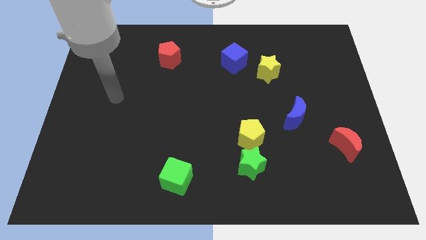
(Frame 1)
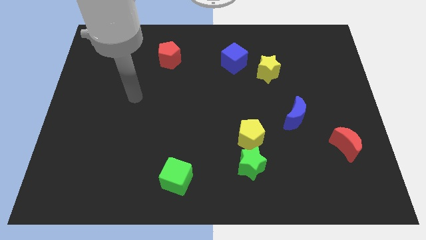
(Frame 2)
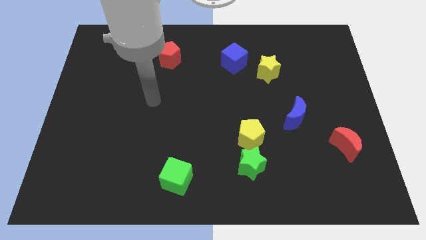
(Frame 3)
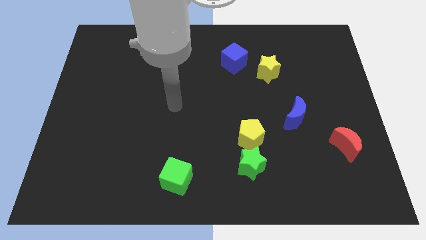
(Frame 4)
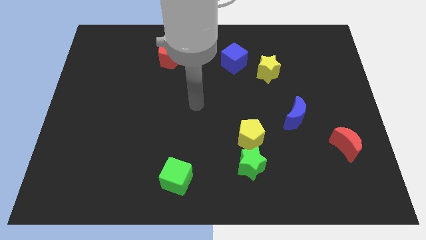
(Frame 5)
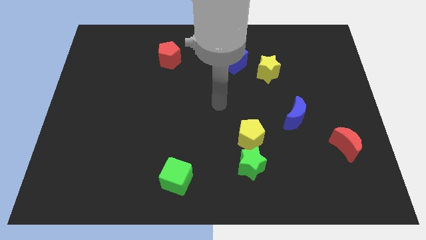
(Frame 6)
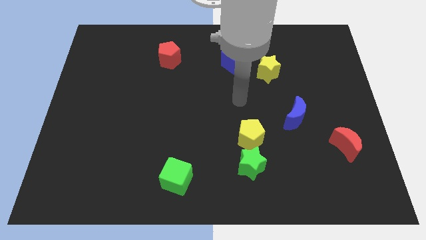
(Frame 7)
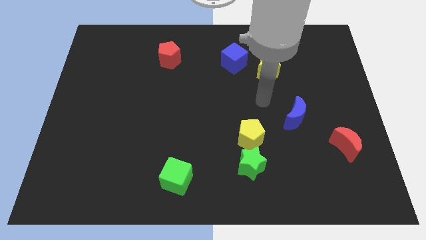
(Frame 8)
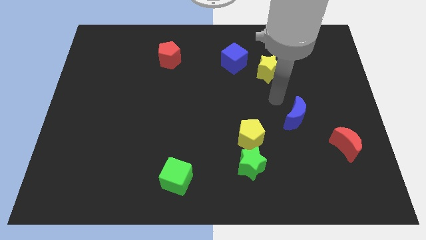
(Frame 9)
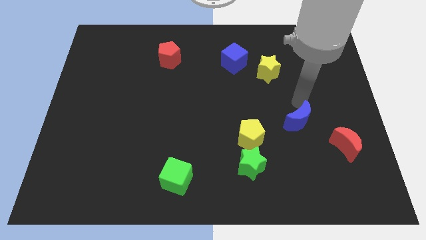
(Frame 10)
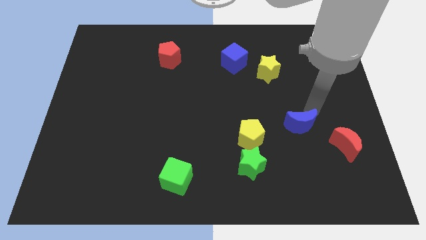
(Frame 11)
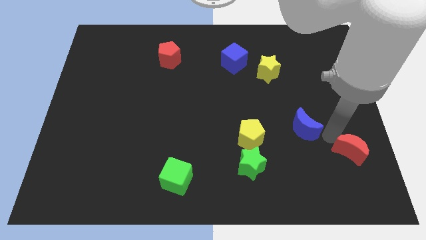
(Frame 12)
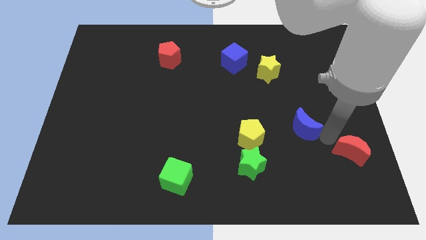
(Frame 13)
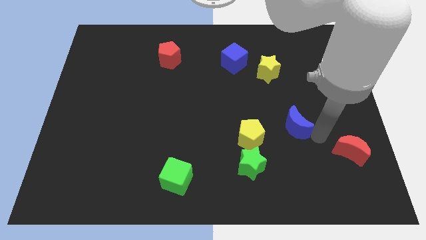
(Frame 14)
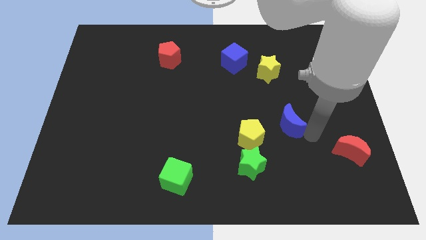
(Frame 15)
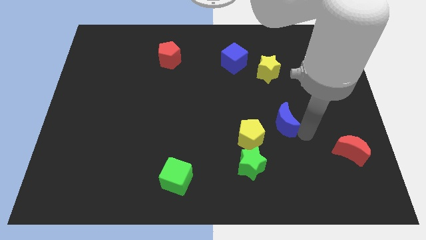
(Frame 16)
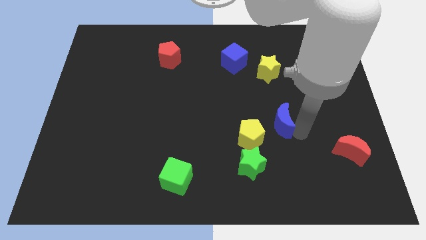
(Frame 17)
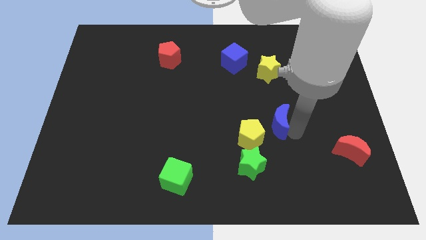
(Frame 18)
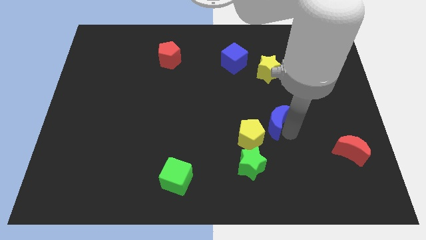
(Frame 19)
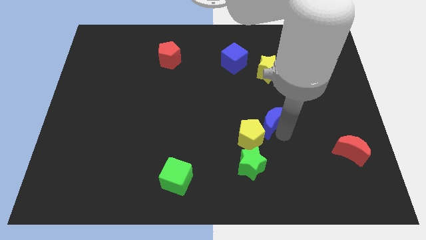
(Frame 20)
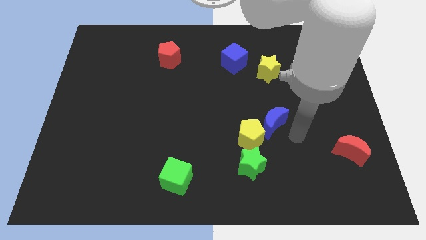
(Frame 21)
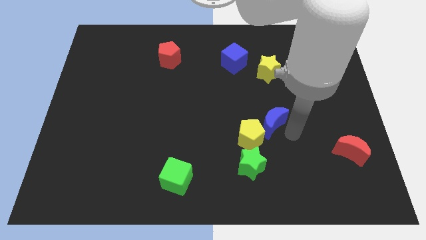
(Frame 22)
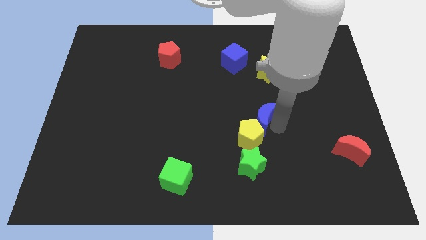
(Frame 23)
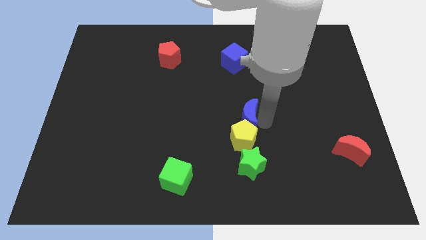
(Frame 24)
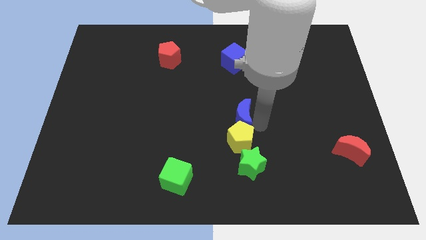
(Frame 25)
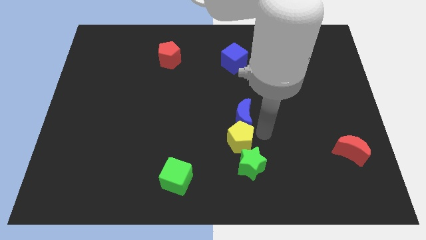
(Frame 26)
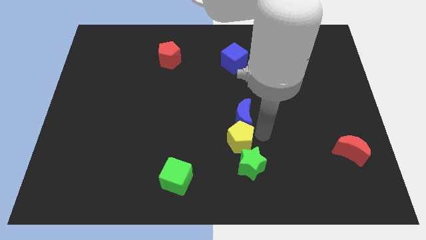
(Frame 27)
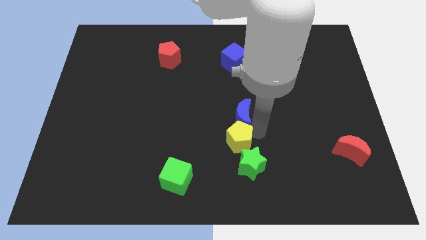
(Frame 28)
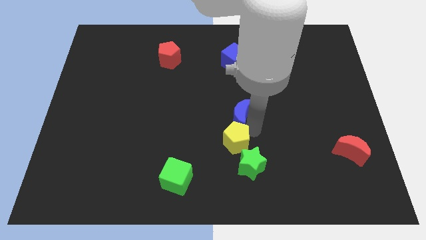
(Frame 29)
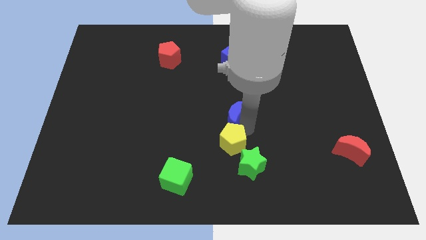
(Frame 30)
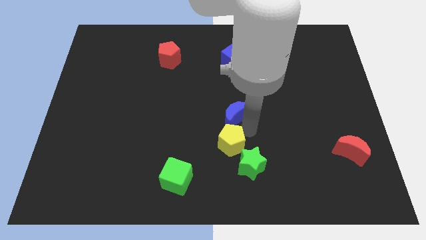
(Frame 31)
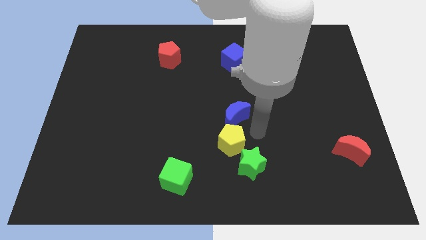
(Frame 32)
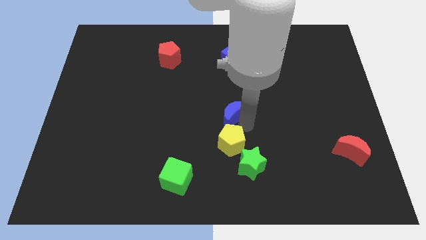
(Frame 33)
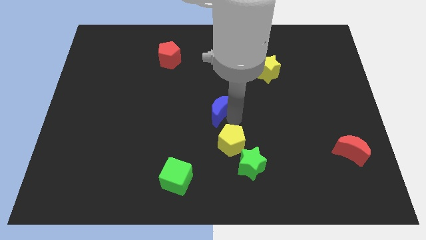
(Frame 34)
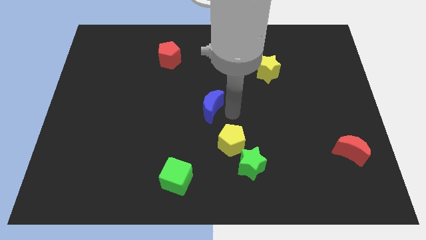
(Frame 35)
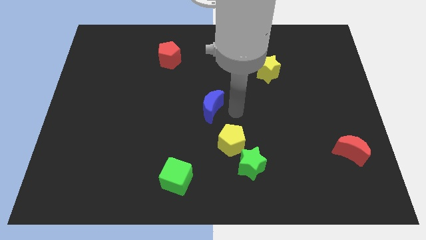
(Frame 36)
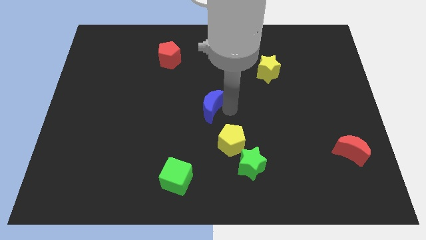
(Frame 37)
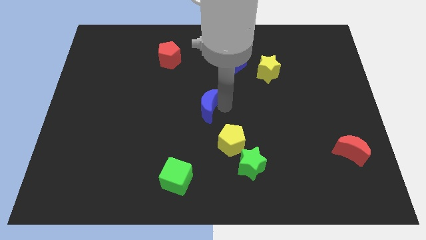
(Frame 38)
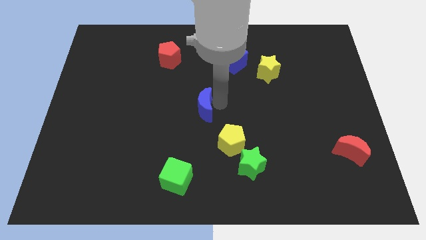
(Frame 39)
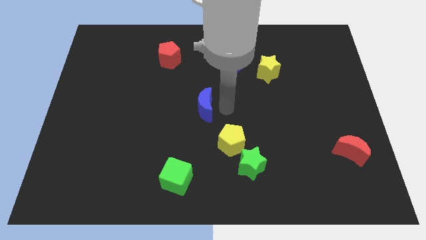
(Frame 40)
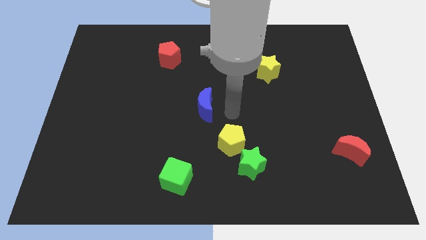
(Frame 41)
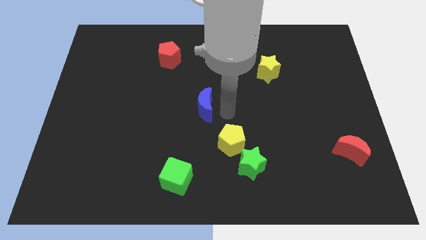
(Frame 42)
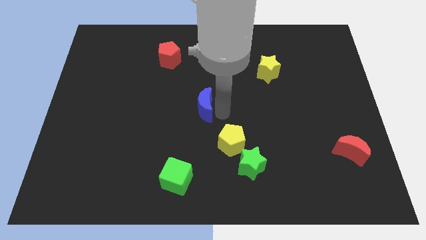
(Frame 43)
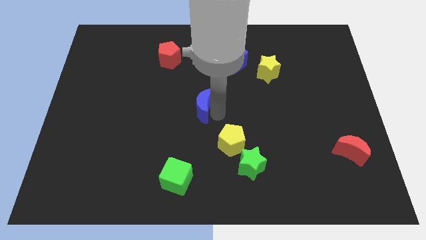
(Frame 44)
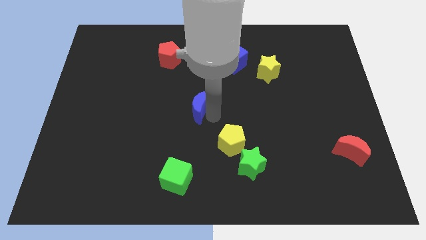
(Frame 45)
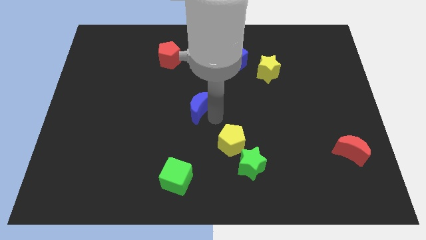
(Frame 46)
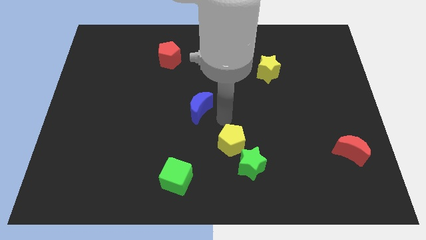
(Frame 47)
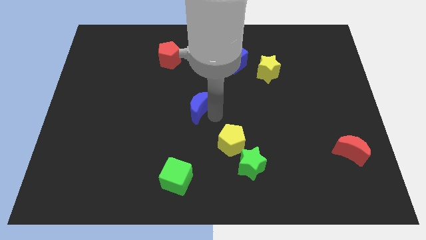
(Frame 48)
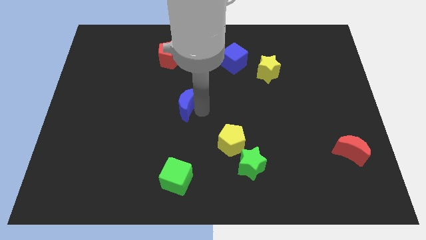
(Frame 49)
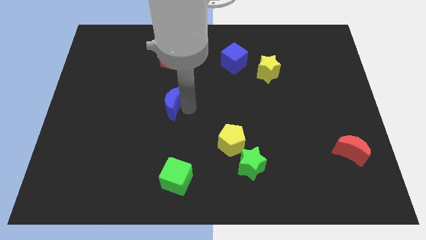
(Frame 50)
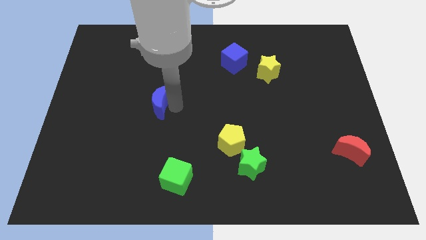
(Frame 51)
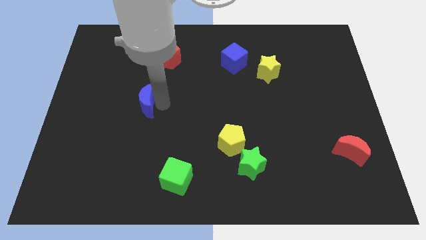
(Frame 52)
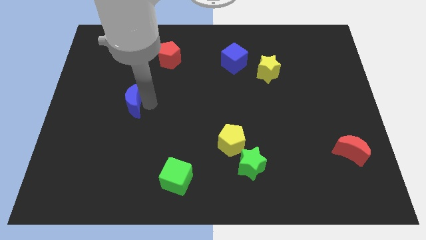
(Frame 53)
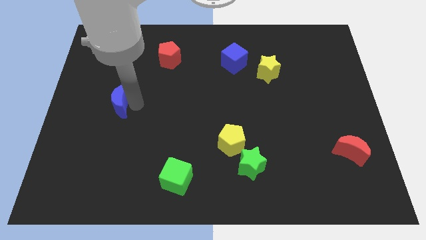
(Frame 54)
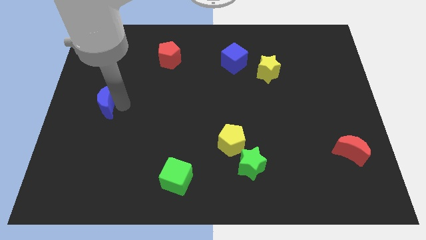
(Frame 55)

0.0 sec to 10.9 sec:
slide the blue moon to the left side of the board

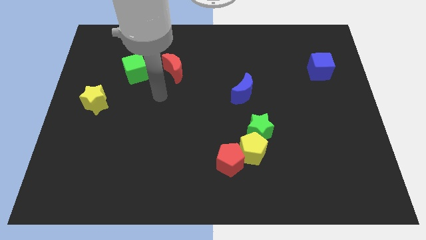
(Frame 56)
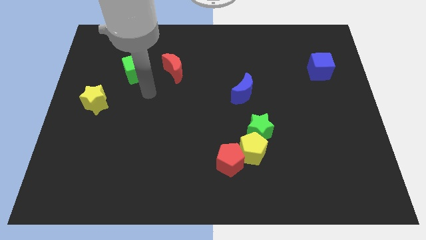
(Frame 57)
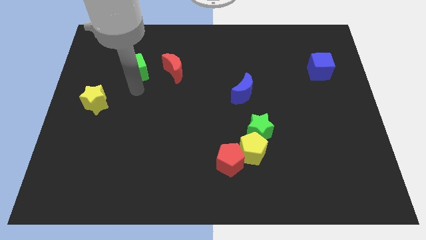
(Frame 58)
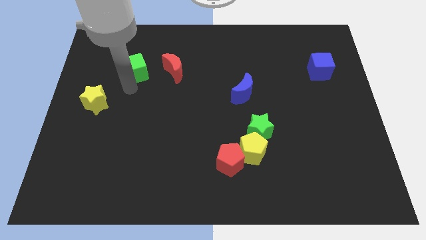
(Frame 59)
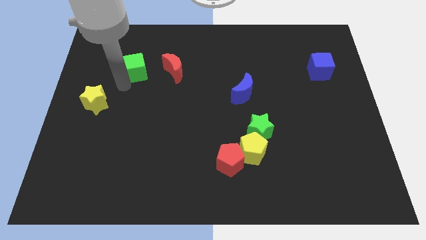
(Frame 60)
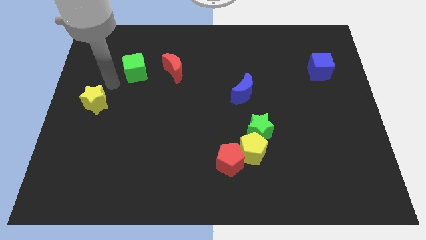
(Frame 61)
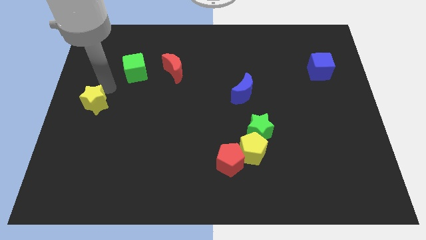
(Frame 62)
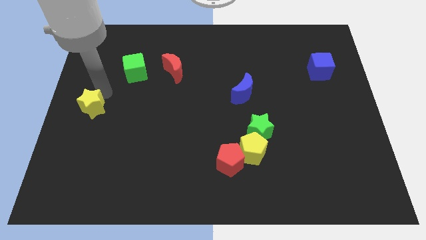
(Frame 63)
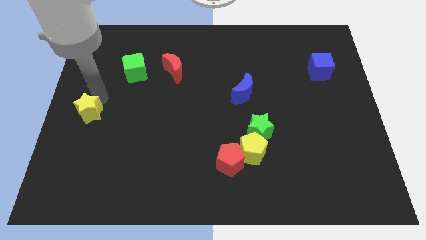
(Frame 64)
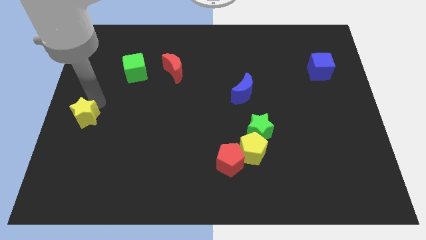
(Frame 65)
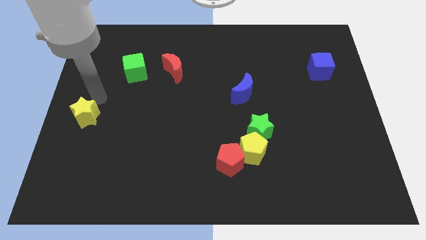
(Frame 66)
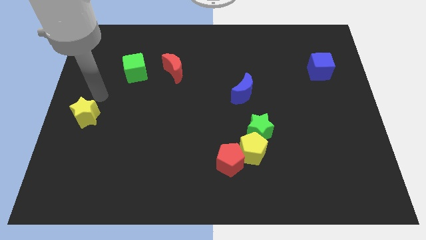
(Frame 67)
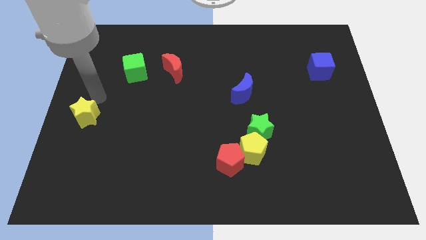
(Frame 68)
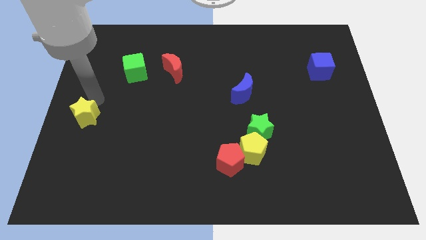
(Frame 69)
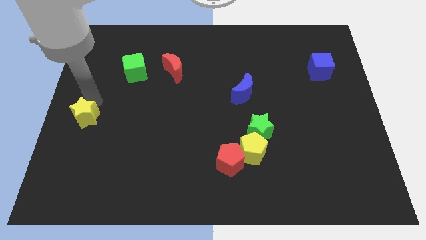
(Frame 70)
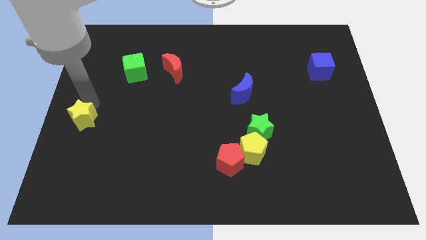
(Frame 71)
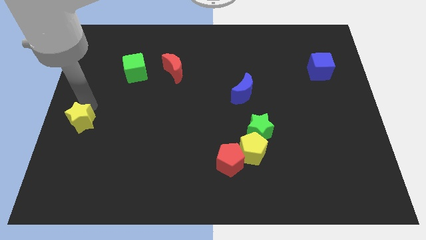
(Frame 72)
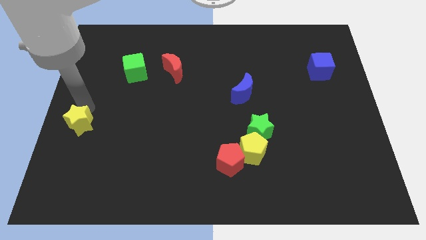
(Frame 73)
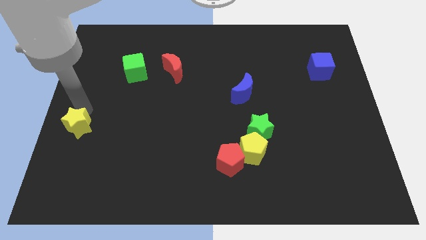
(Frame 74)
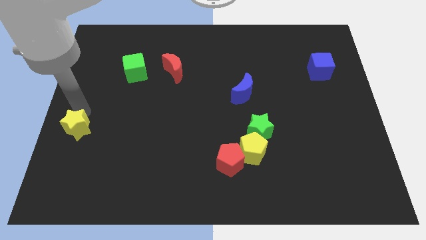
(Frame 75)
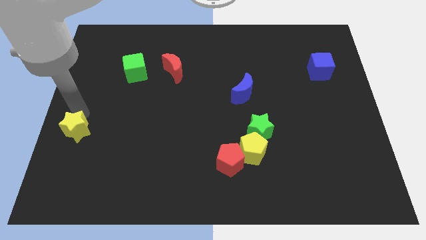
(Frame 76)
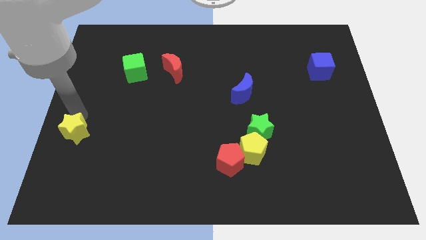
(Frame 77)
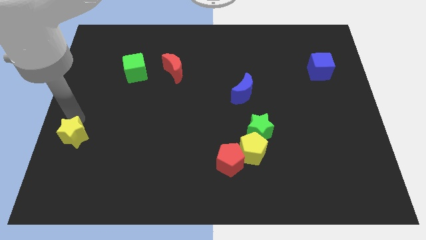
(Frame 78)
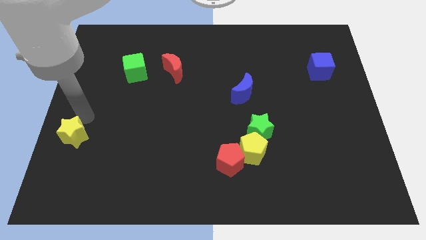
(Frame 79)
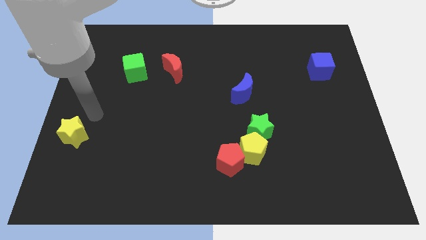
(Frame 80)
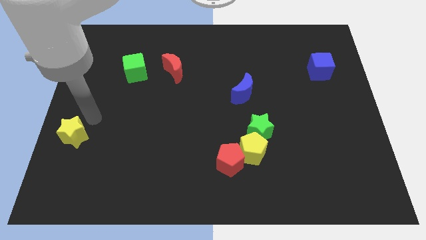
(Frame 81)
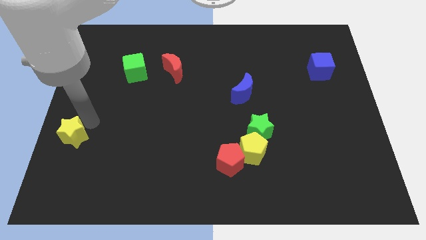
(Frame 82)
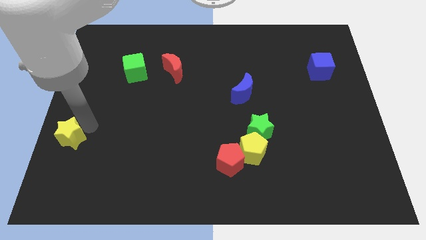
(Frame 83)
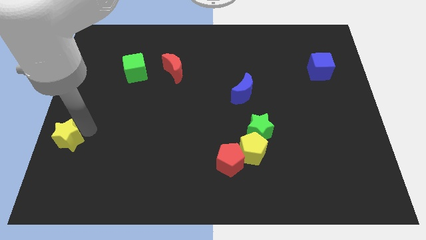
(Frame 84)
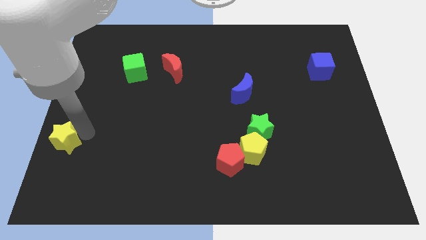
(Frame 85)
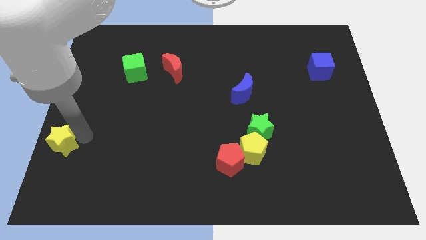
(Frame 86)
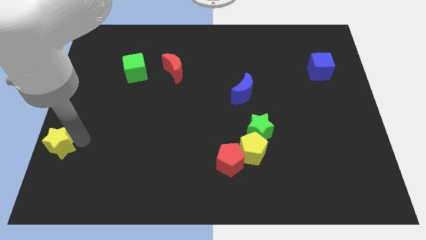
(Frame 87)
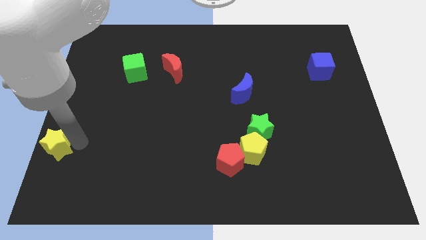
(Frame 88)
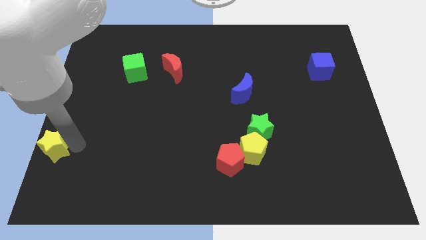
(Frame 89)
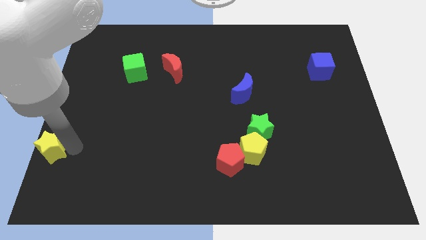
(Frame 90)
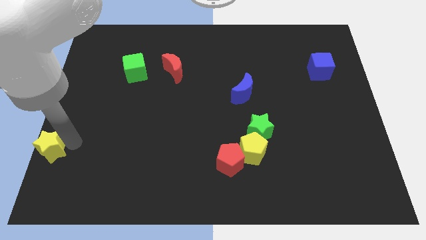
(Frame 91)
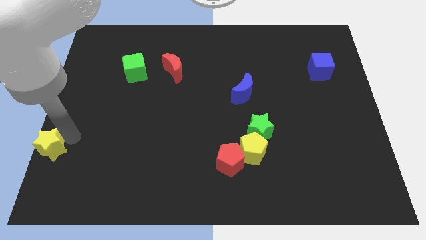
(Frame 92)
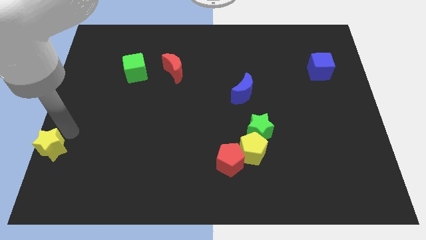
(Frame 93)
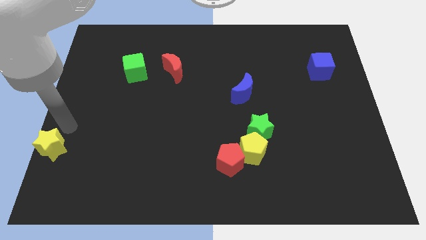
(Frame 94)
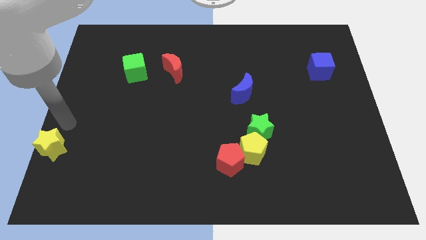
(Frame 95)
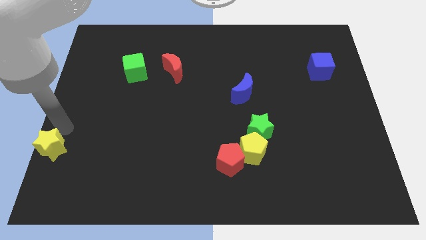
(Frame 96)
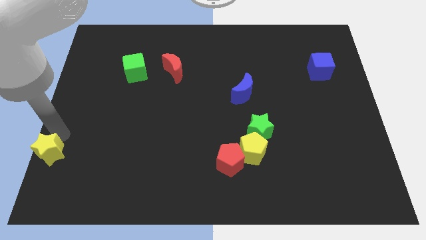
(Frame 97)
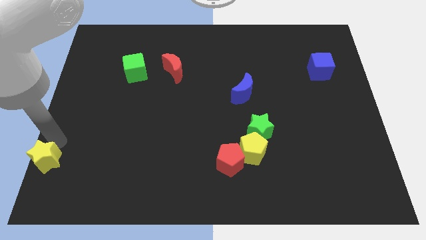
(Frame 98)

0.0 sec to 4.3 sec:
push the yellow star to the bottom left
